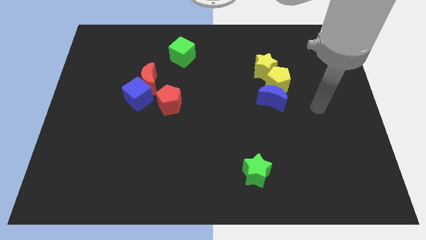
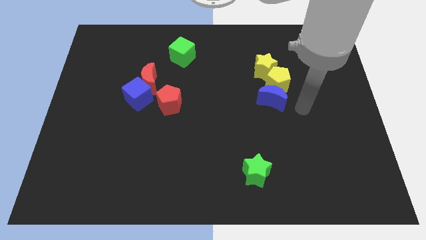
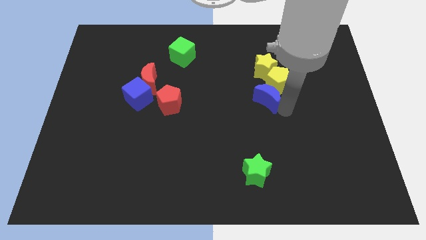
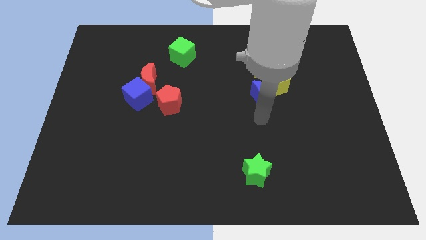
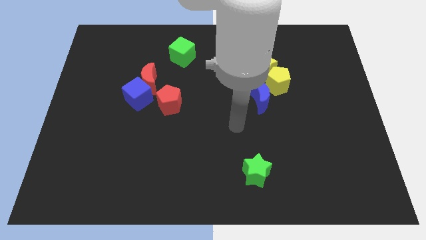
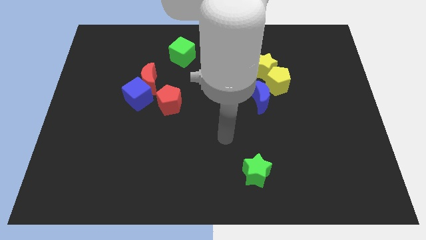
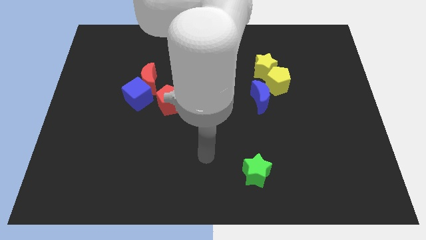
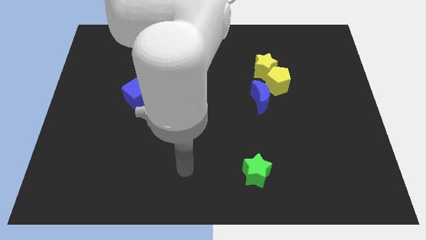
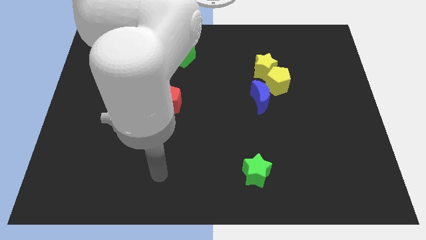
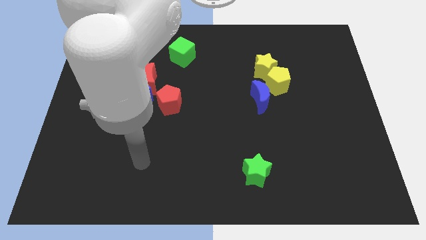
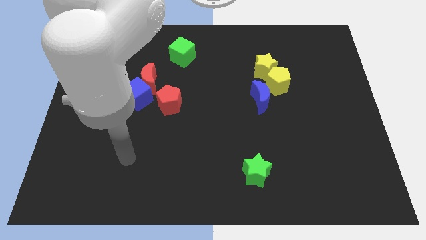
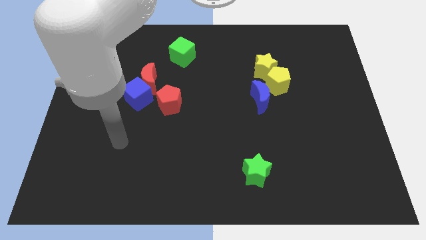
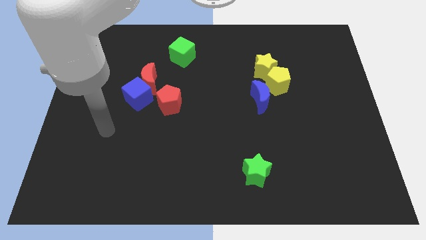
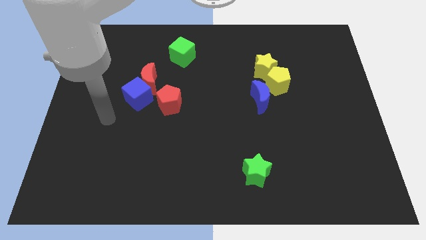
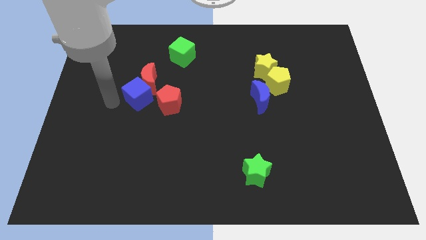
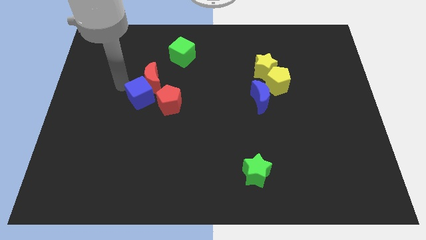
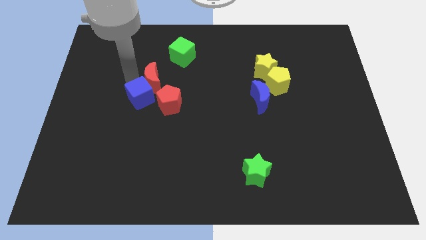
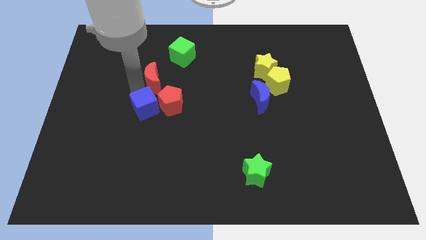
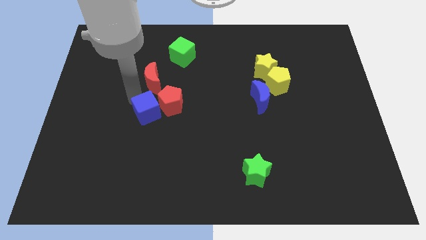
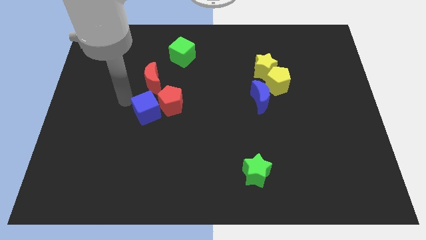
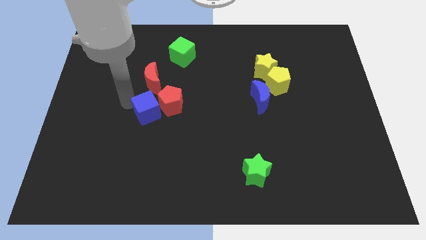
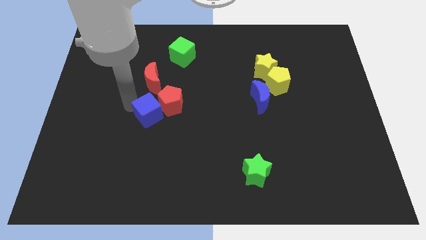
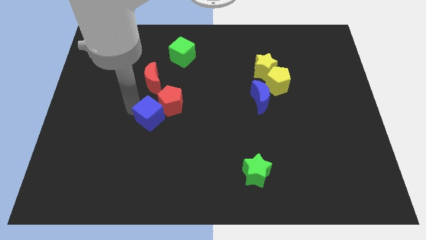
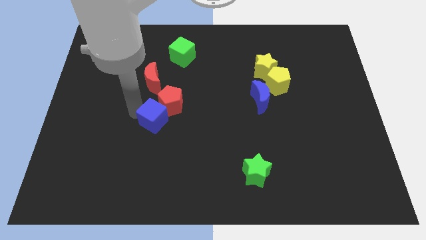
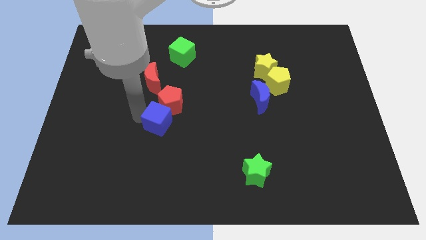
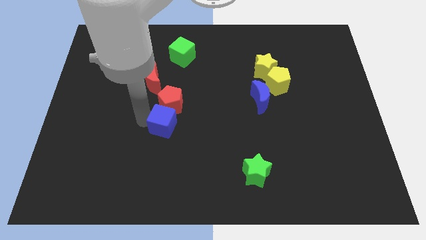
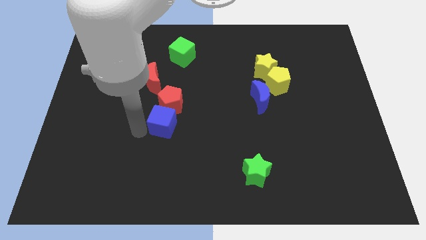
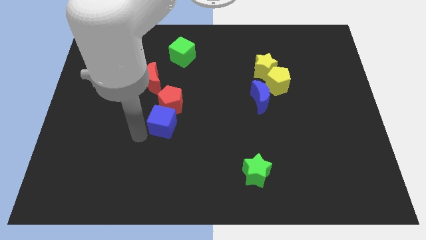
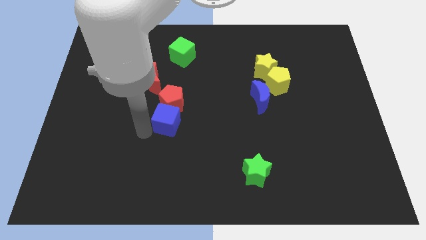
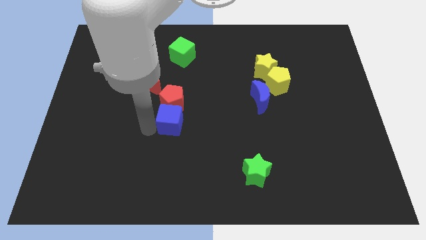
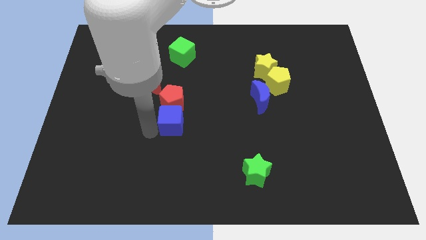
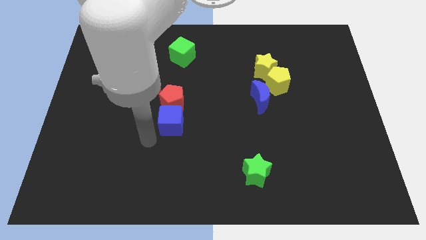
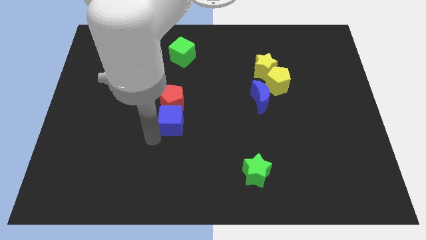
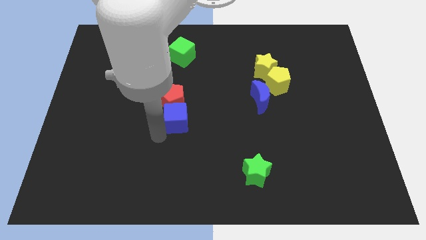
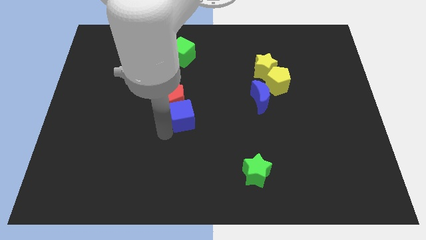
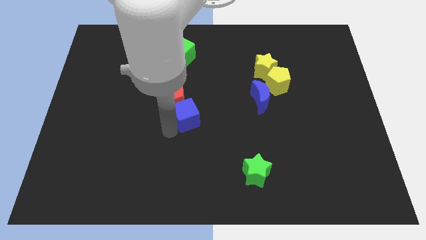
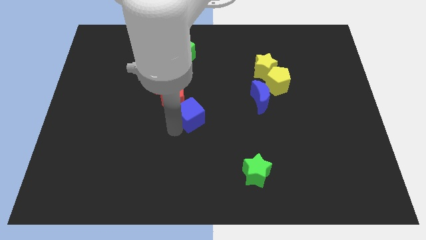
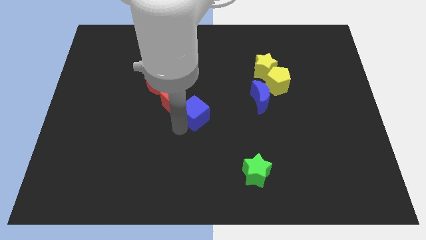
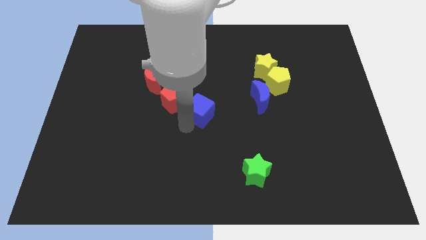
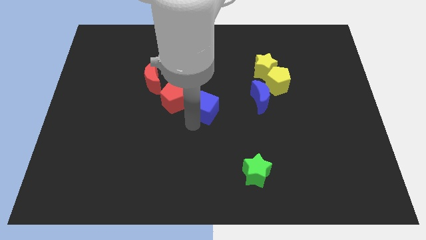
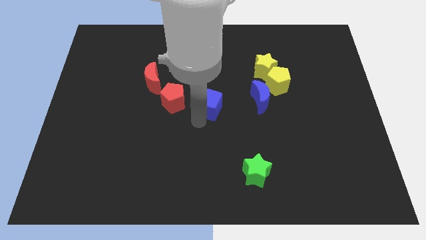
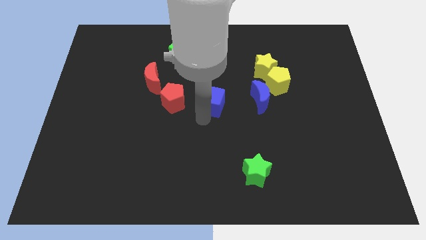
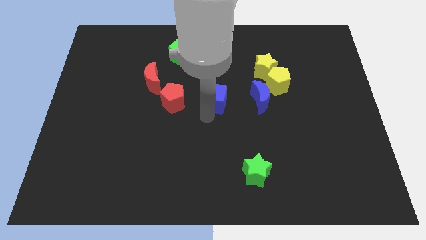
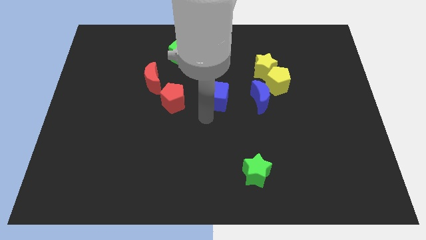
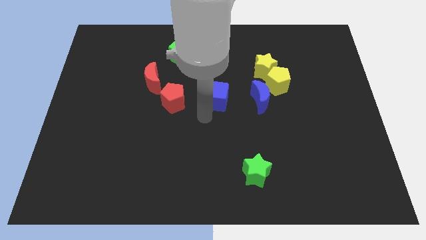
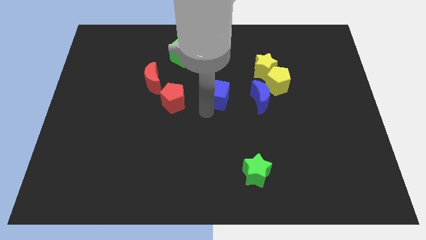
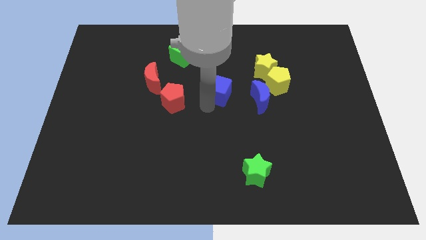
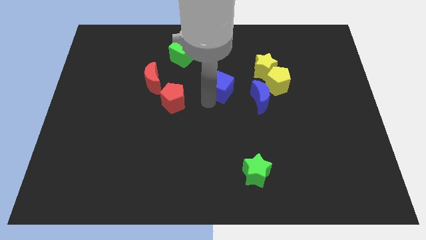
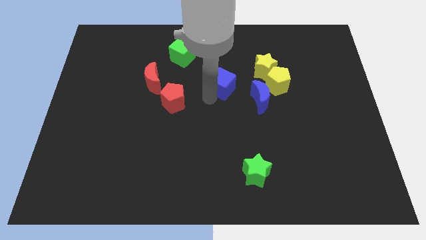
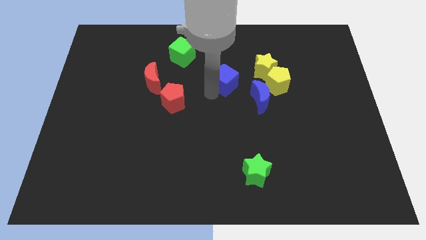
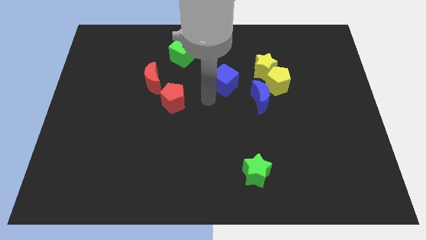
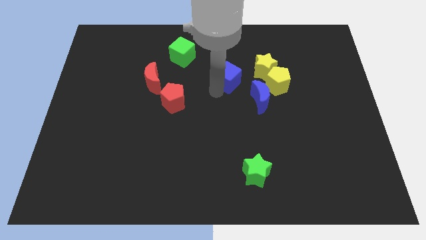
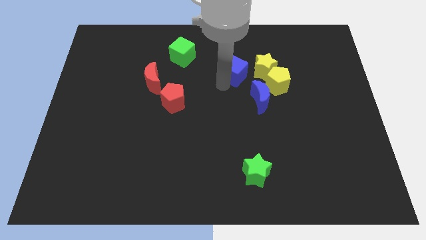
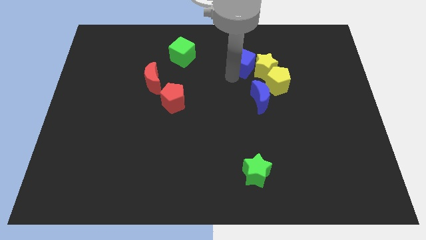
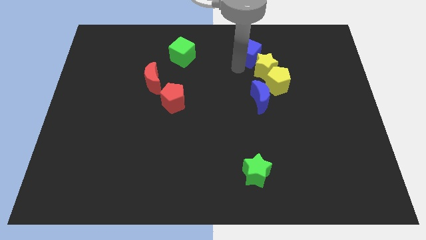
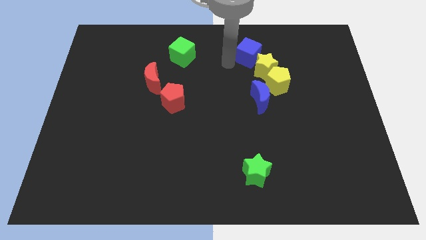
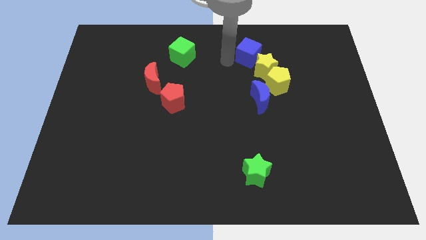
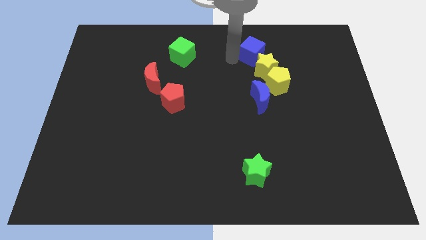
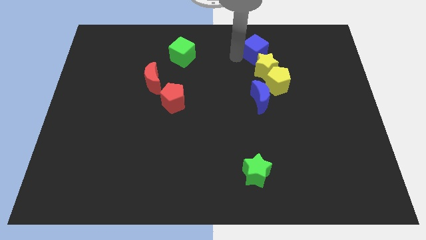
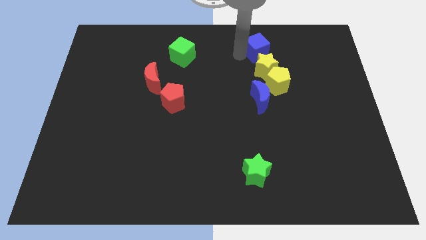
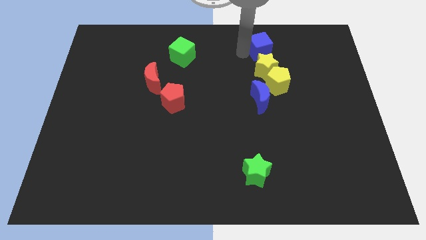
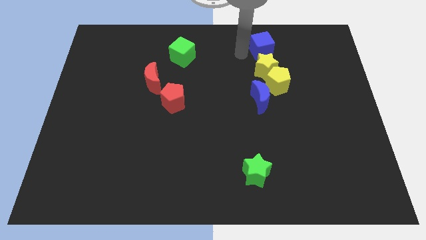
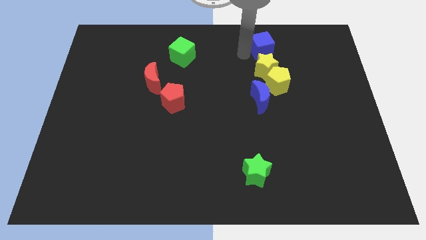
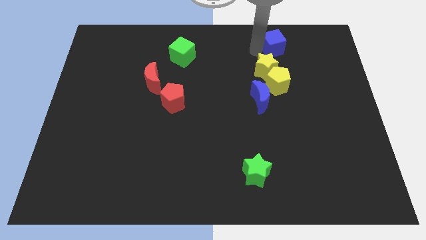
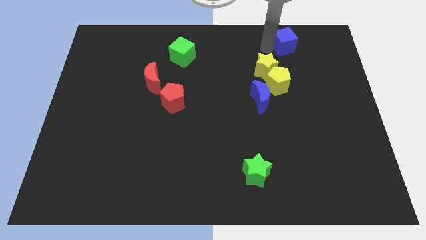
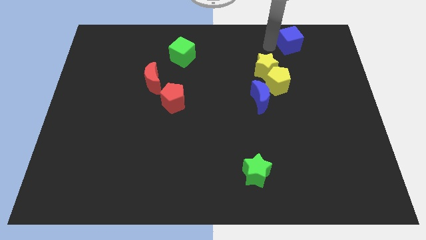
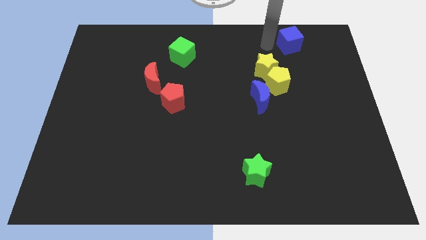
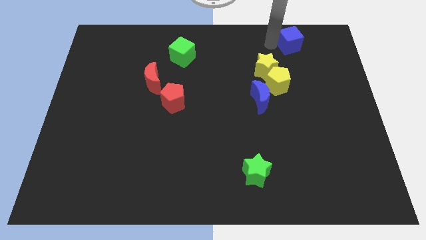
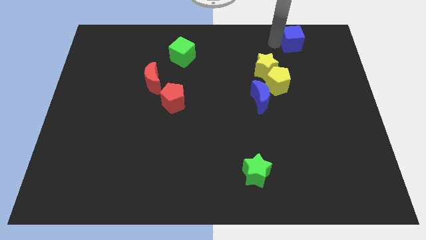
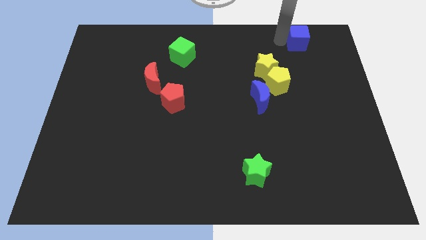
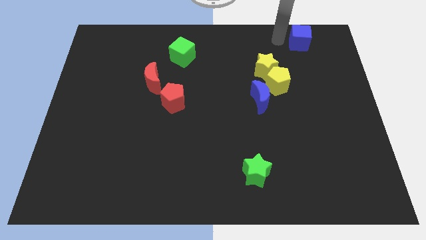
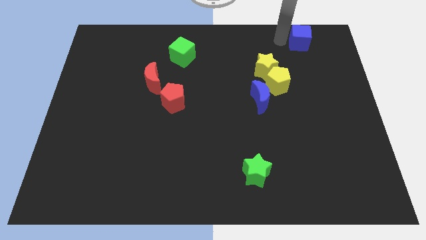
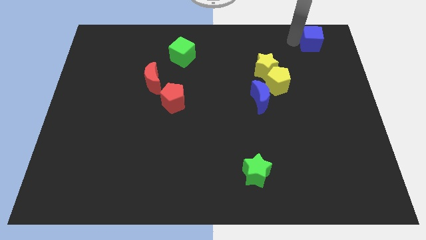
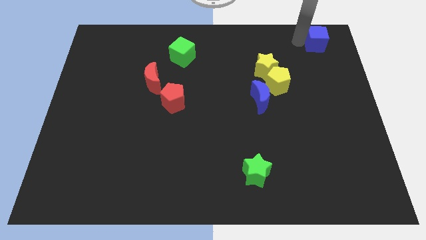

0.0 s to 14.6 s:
push the blue cube to the upper right corner
